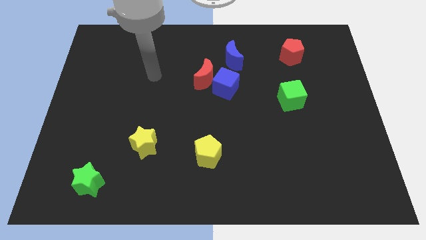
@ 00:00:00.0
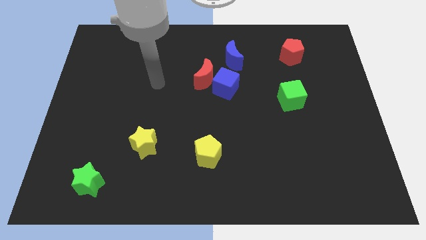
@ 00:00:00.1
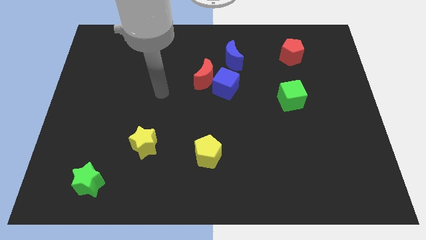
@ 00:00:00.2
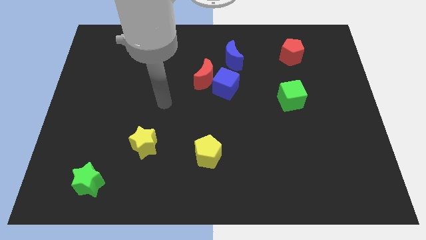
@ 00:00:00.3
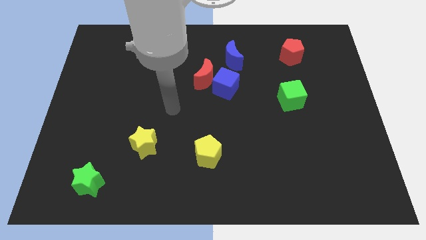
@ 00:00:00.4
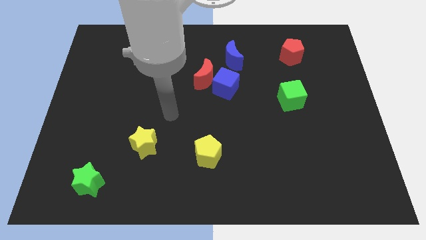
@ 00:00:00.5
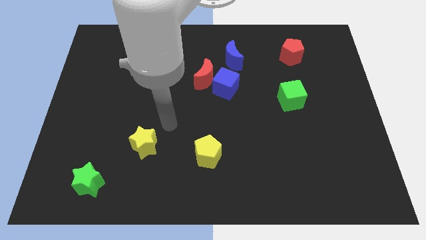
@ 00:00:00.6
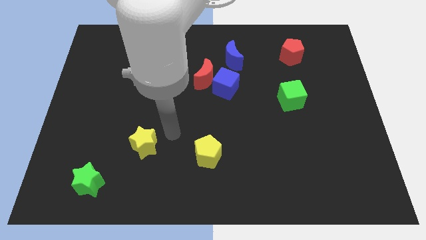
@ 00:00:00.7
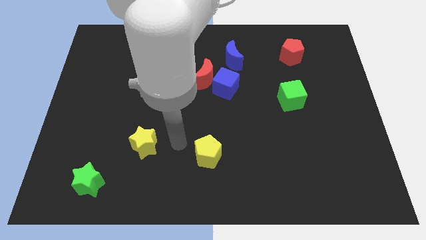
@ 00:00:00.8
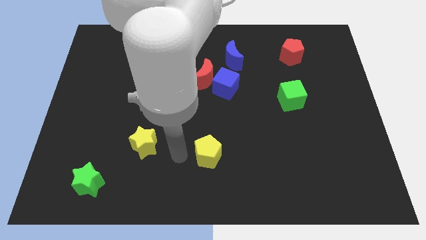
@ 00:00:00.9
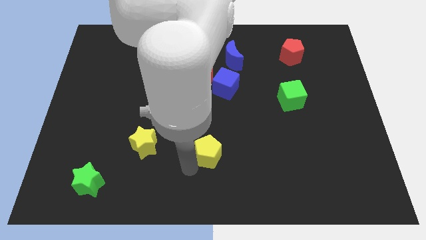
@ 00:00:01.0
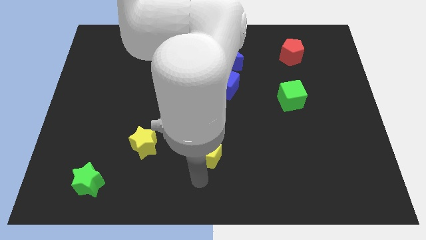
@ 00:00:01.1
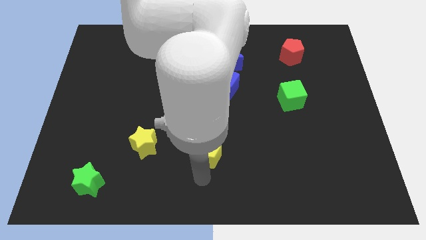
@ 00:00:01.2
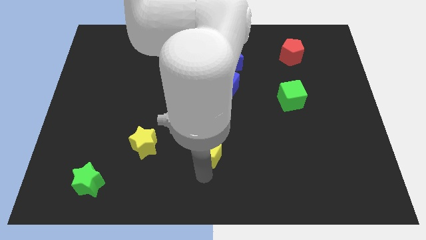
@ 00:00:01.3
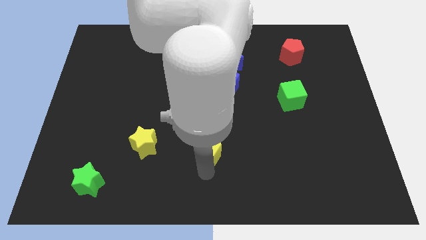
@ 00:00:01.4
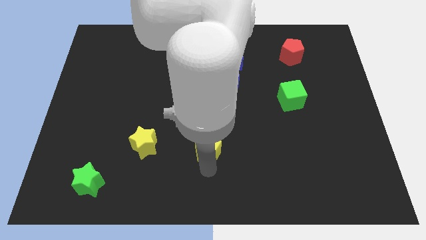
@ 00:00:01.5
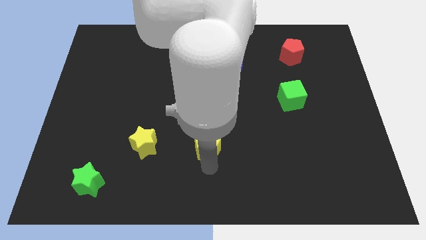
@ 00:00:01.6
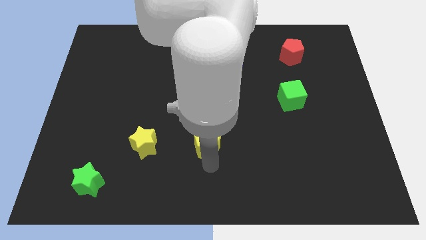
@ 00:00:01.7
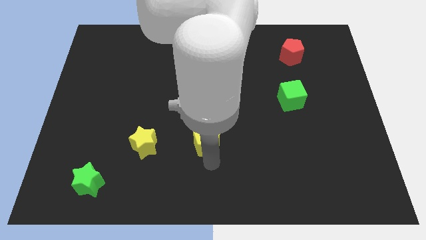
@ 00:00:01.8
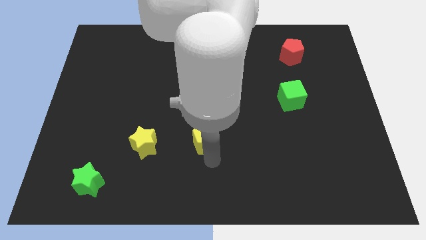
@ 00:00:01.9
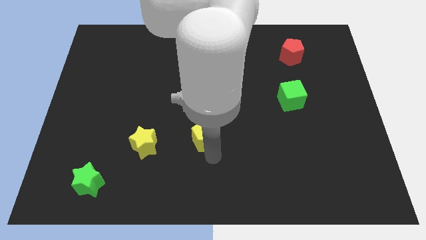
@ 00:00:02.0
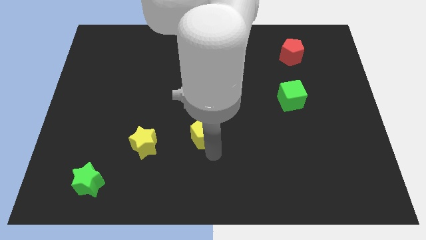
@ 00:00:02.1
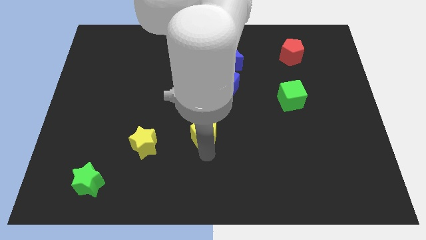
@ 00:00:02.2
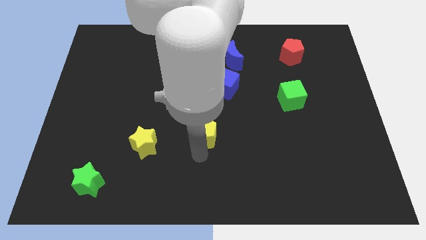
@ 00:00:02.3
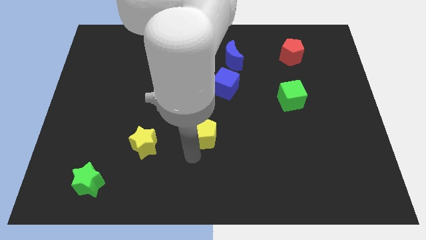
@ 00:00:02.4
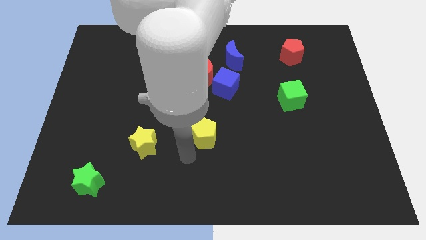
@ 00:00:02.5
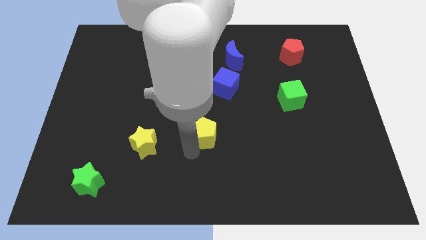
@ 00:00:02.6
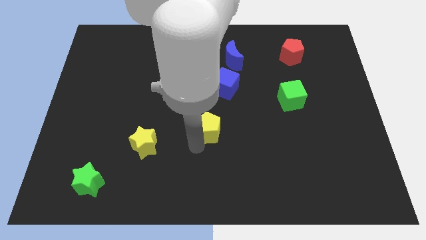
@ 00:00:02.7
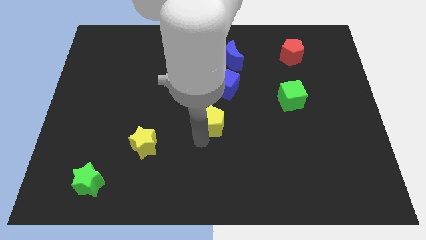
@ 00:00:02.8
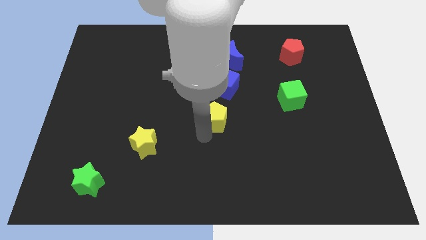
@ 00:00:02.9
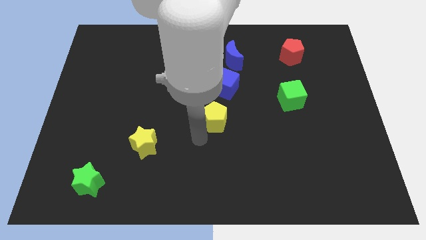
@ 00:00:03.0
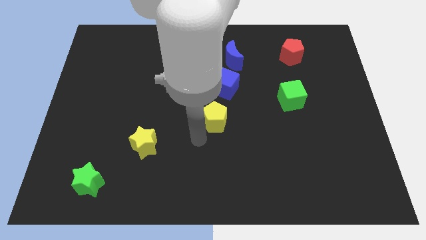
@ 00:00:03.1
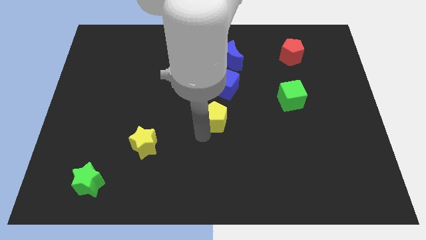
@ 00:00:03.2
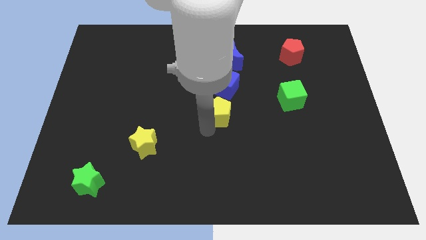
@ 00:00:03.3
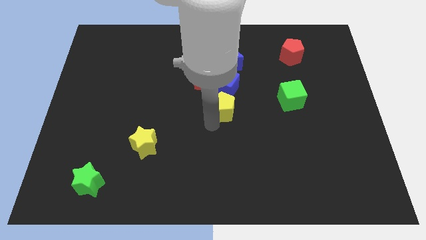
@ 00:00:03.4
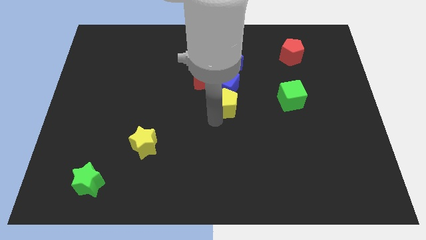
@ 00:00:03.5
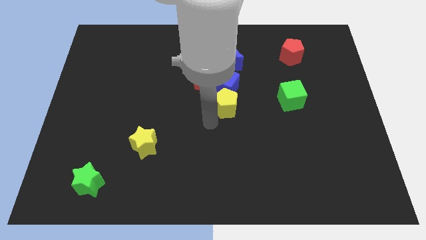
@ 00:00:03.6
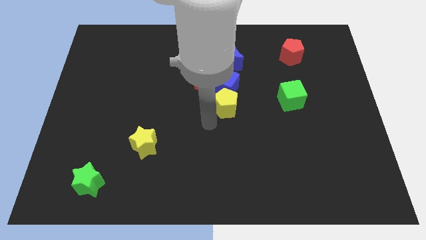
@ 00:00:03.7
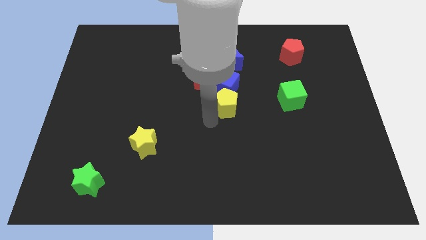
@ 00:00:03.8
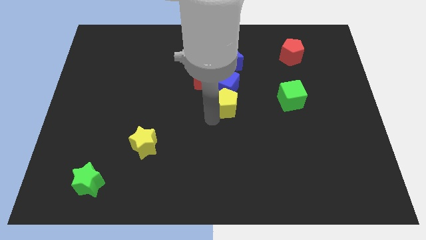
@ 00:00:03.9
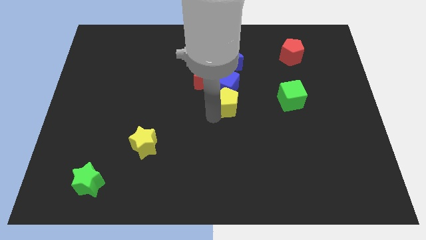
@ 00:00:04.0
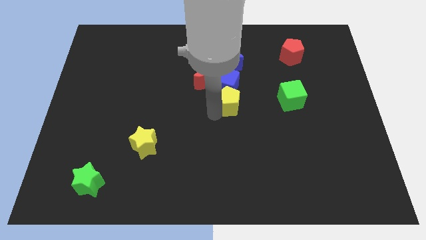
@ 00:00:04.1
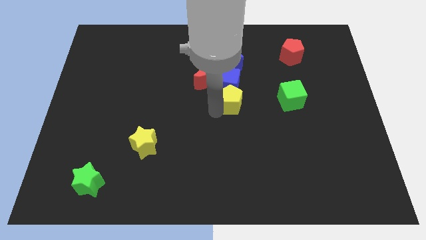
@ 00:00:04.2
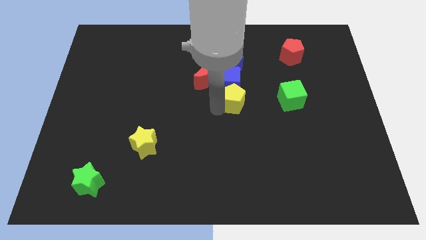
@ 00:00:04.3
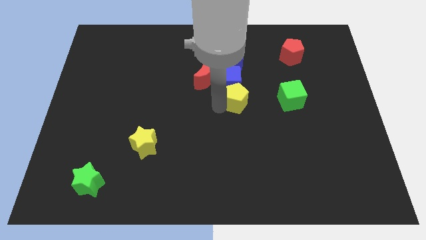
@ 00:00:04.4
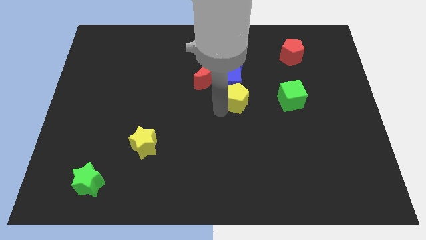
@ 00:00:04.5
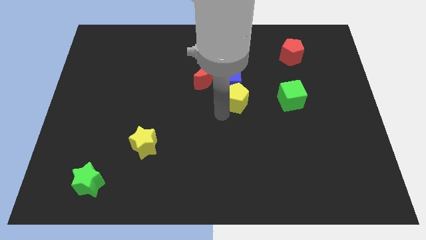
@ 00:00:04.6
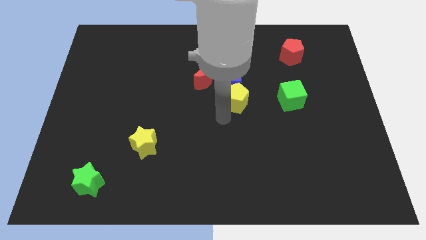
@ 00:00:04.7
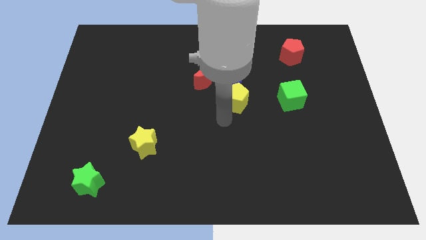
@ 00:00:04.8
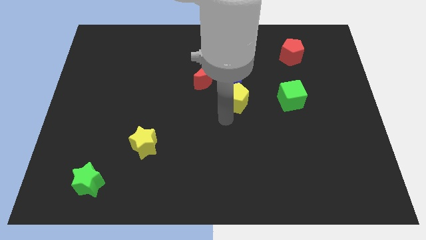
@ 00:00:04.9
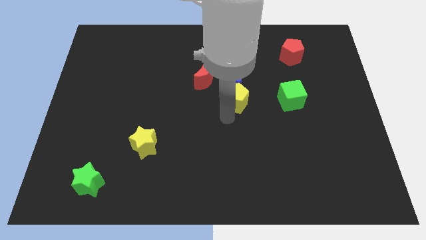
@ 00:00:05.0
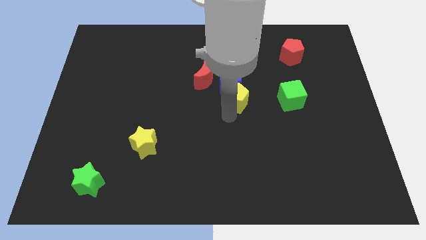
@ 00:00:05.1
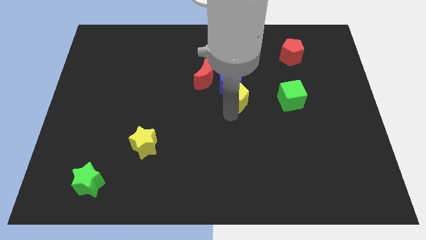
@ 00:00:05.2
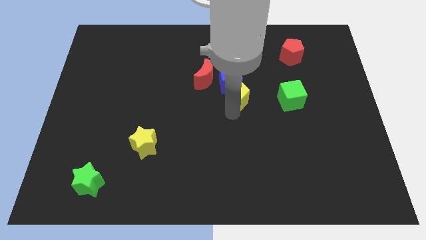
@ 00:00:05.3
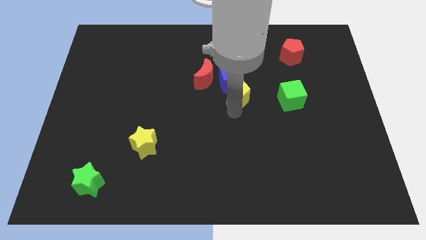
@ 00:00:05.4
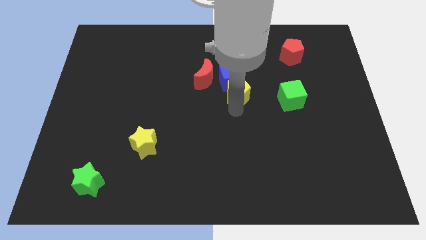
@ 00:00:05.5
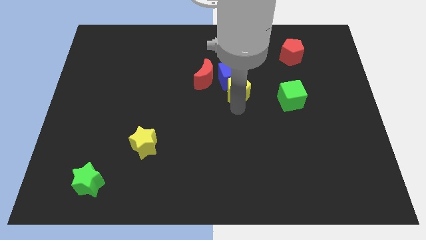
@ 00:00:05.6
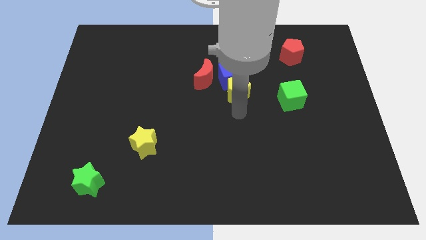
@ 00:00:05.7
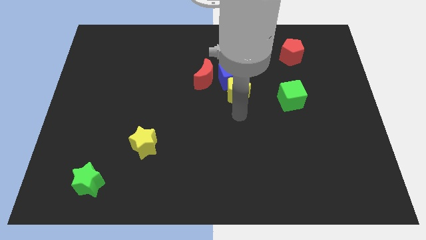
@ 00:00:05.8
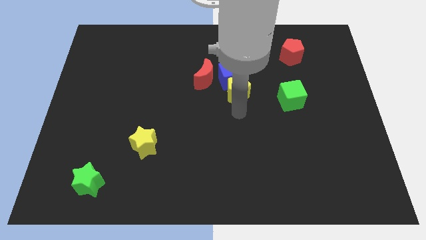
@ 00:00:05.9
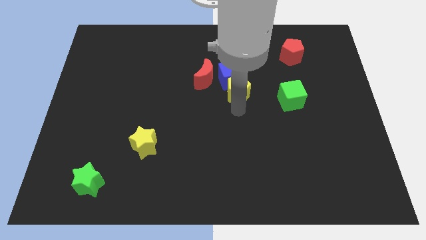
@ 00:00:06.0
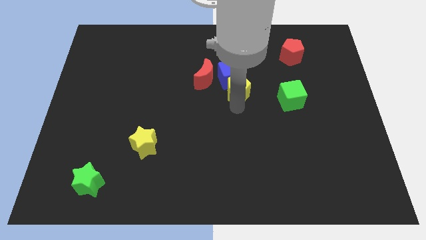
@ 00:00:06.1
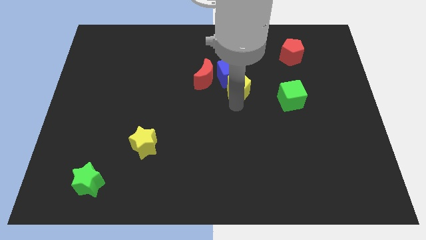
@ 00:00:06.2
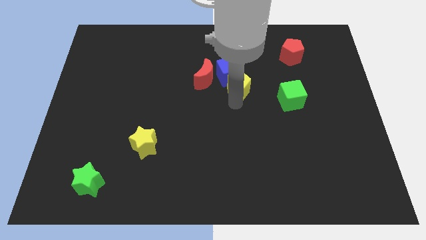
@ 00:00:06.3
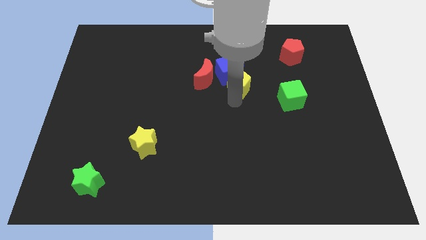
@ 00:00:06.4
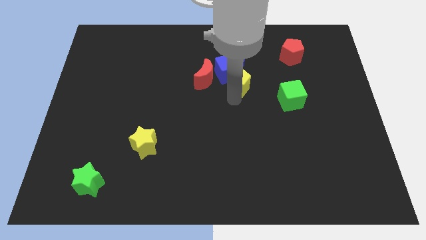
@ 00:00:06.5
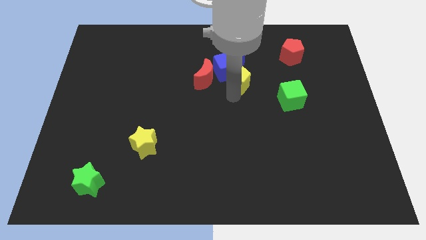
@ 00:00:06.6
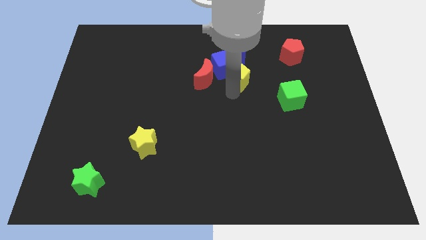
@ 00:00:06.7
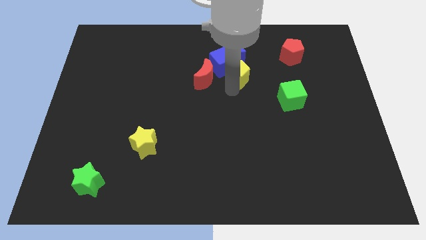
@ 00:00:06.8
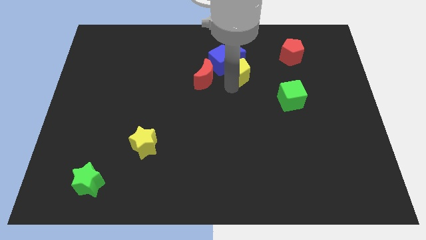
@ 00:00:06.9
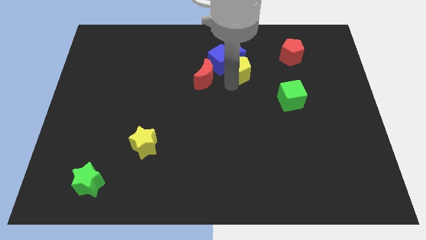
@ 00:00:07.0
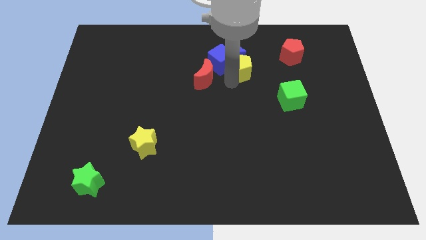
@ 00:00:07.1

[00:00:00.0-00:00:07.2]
slide the yellow pentagon next to the blue moon
